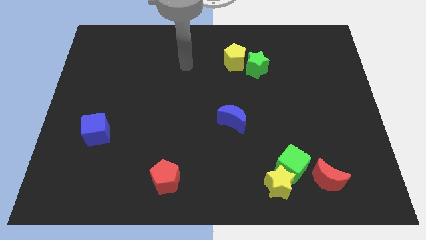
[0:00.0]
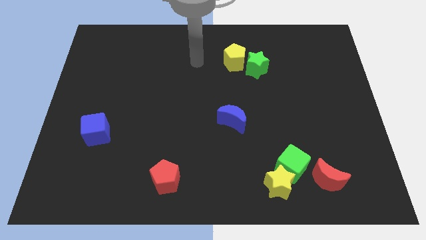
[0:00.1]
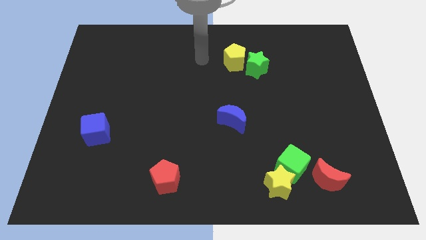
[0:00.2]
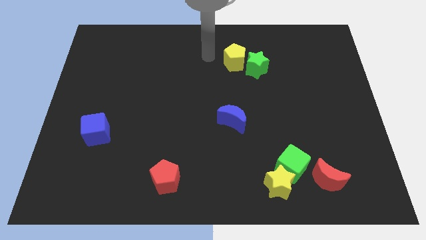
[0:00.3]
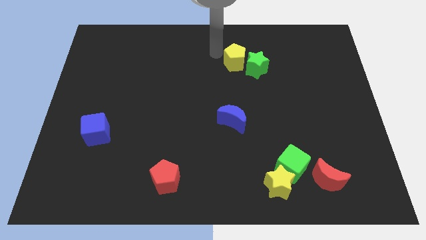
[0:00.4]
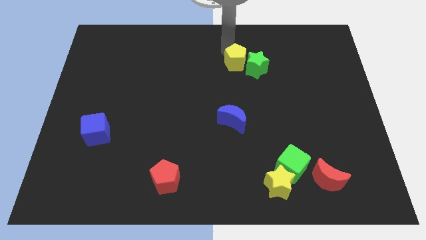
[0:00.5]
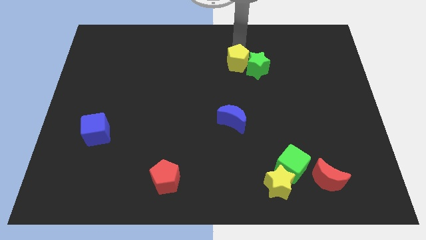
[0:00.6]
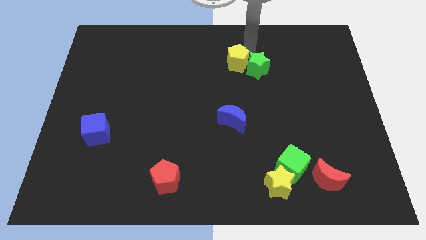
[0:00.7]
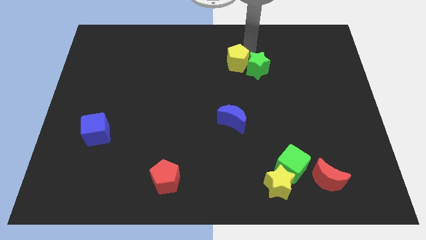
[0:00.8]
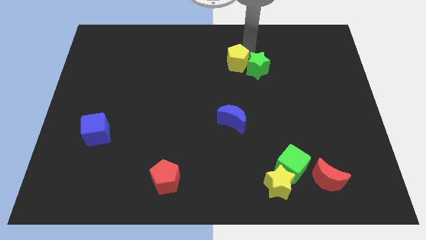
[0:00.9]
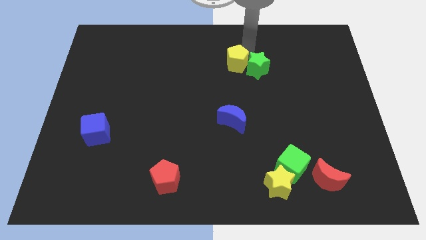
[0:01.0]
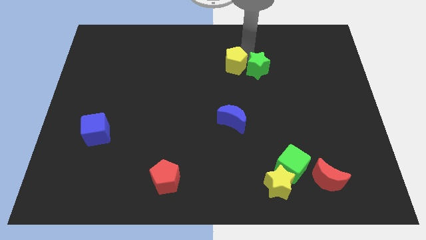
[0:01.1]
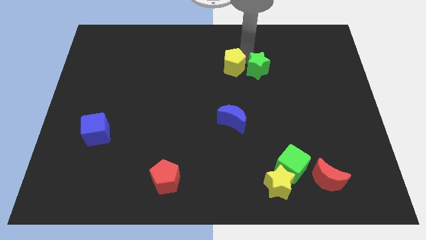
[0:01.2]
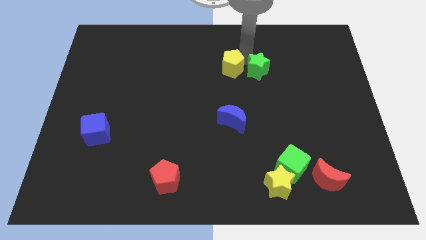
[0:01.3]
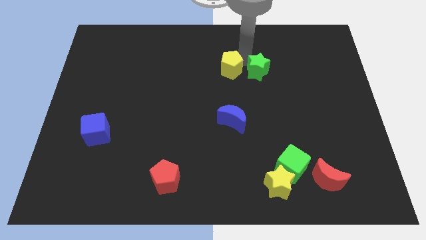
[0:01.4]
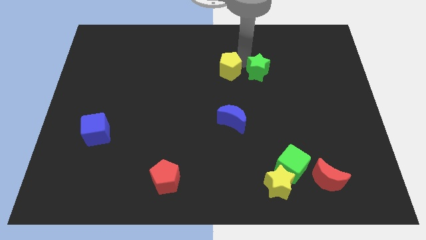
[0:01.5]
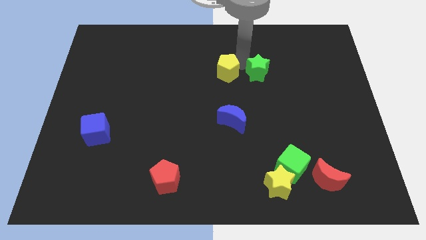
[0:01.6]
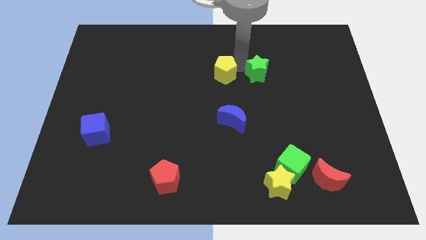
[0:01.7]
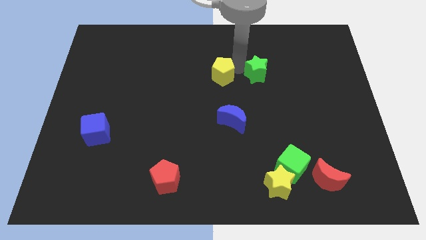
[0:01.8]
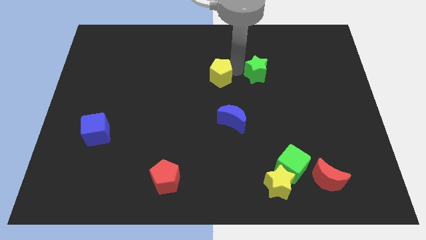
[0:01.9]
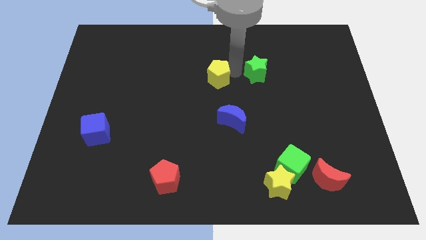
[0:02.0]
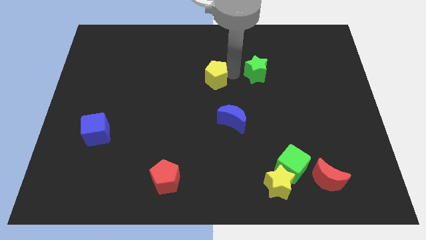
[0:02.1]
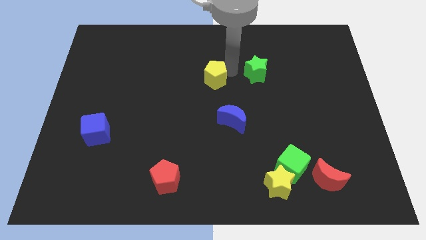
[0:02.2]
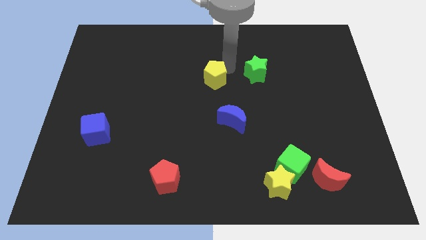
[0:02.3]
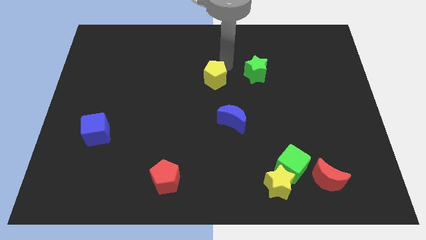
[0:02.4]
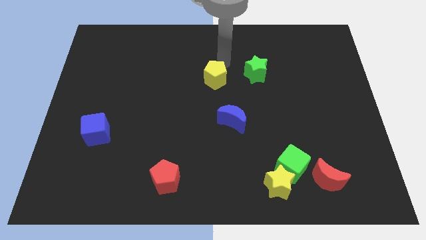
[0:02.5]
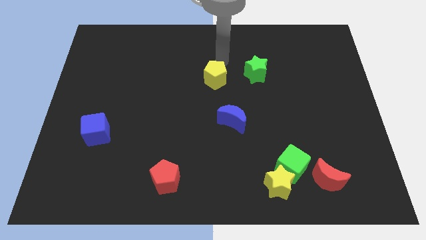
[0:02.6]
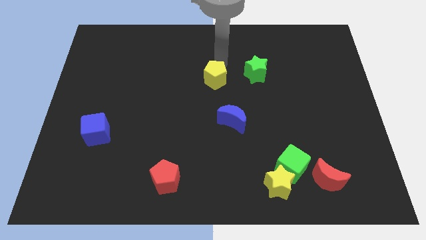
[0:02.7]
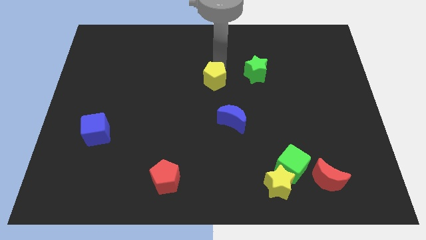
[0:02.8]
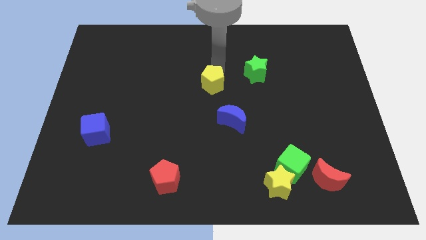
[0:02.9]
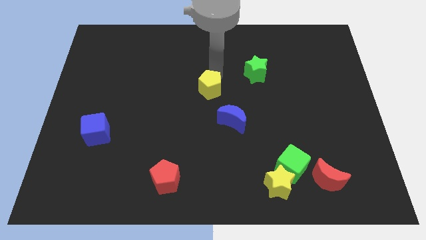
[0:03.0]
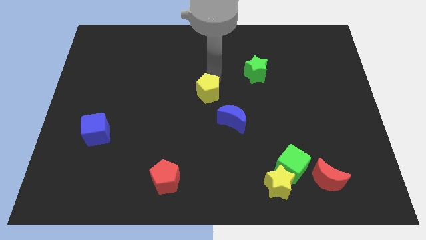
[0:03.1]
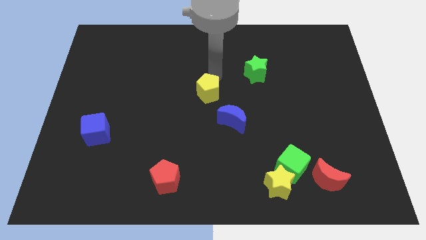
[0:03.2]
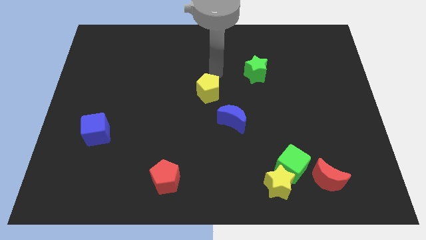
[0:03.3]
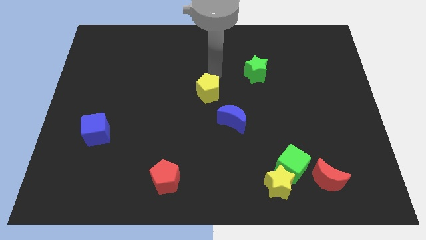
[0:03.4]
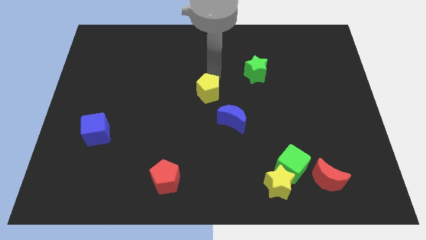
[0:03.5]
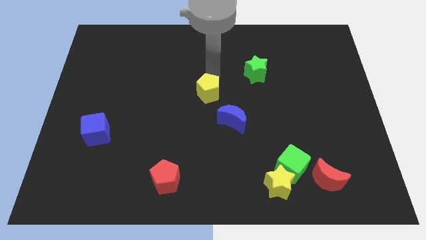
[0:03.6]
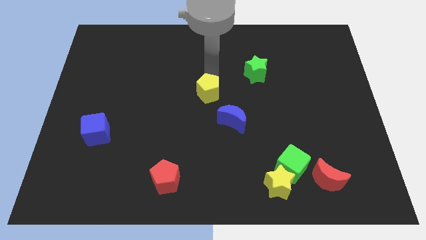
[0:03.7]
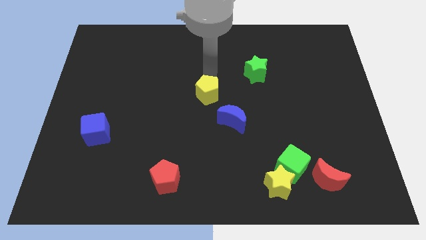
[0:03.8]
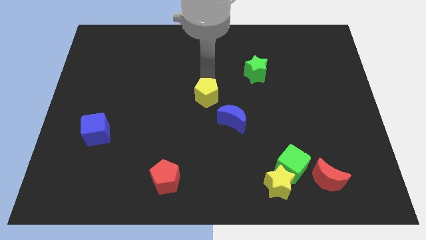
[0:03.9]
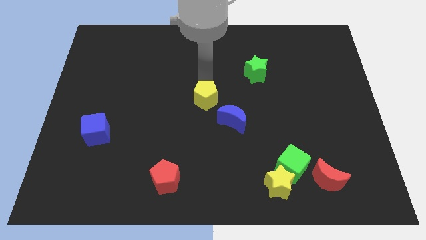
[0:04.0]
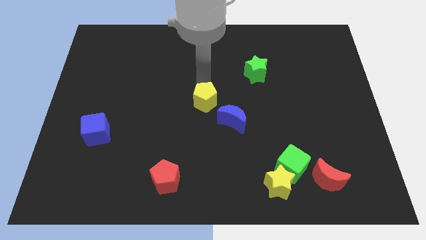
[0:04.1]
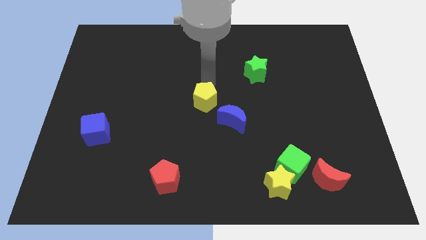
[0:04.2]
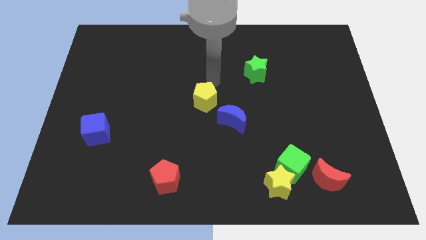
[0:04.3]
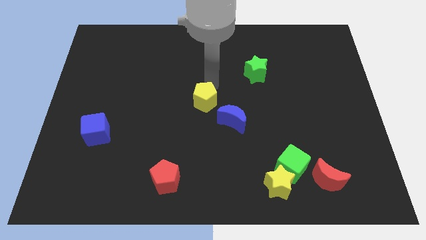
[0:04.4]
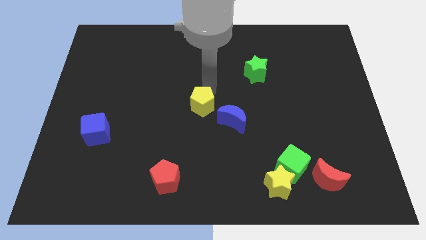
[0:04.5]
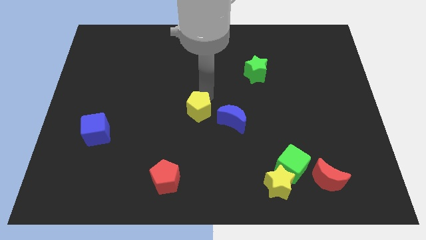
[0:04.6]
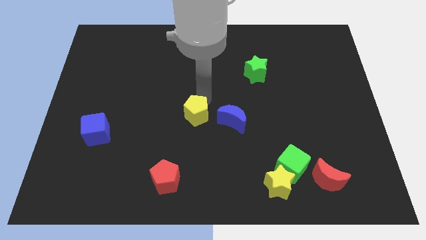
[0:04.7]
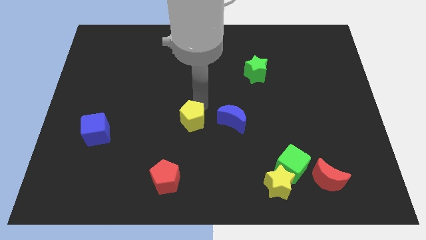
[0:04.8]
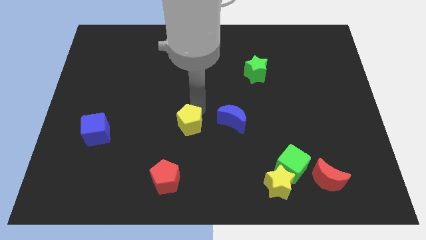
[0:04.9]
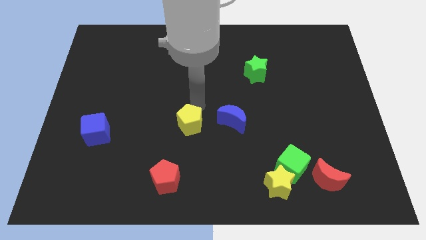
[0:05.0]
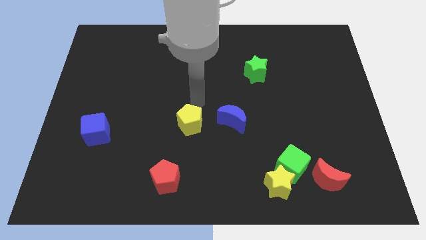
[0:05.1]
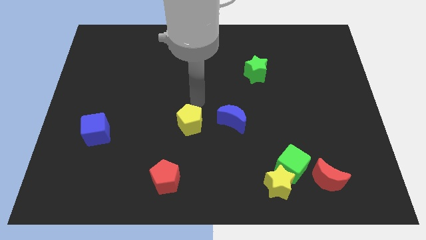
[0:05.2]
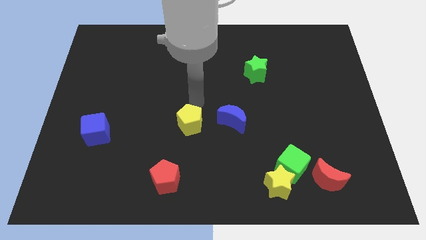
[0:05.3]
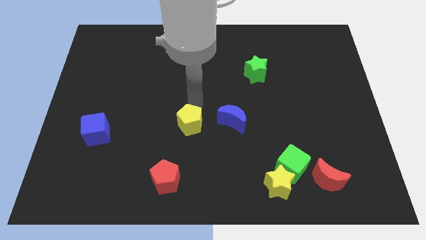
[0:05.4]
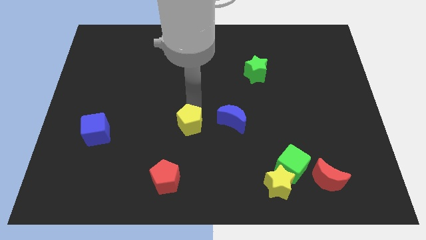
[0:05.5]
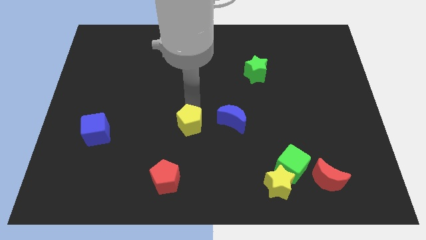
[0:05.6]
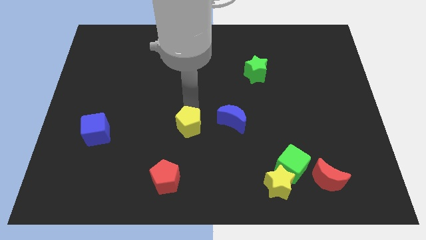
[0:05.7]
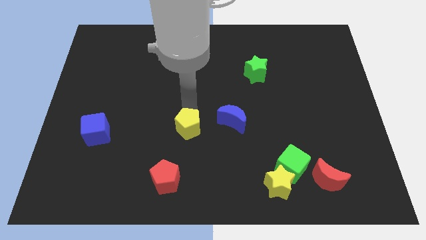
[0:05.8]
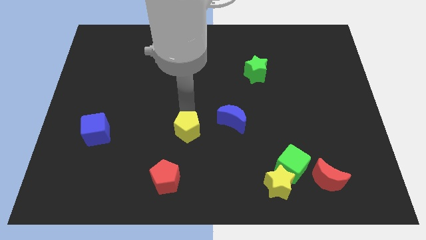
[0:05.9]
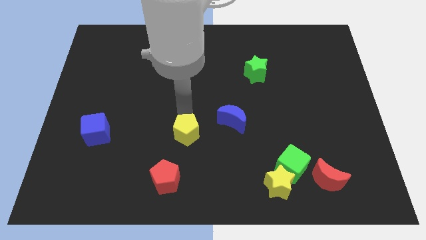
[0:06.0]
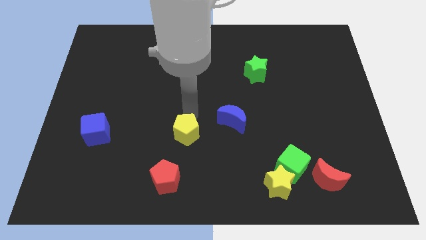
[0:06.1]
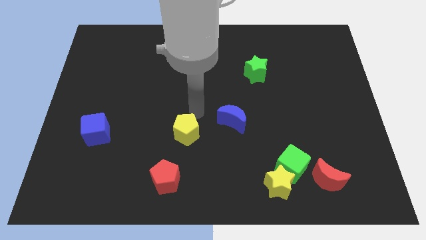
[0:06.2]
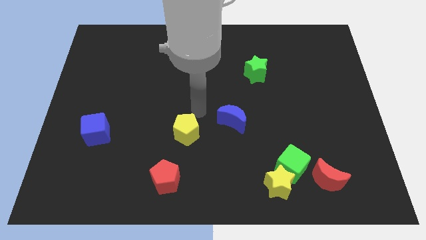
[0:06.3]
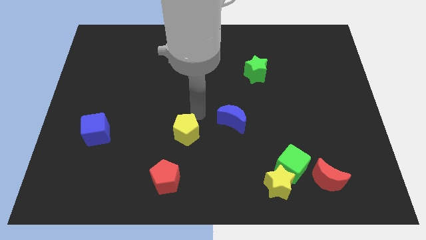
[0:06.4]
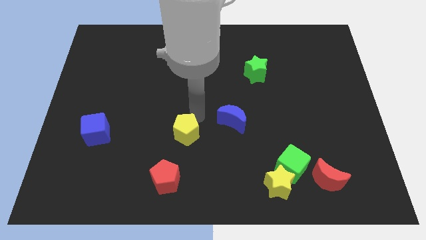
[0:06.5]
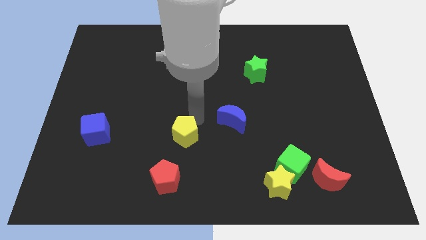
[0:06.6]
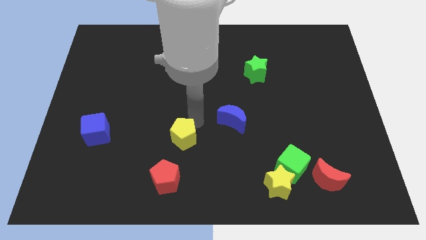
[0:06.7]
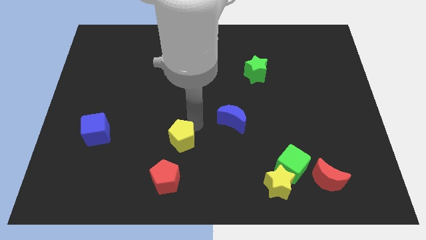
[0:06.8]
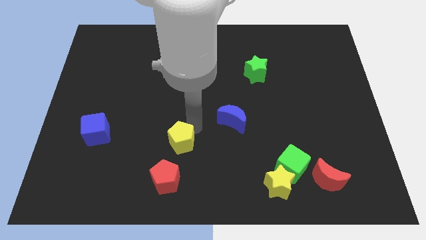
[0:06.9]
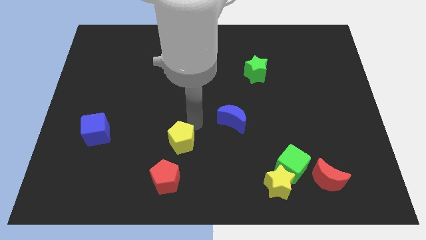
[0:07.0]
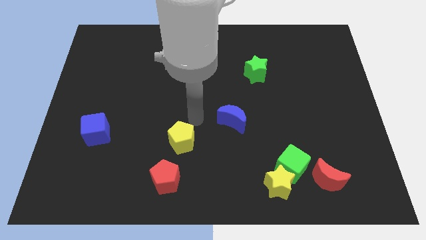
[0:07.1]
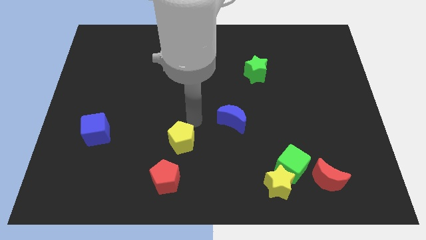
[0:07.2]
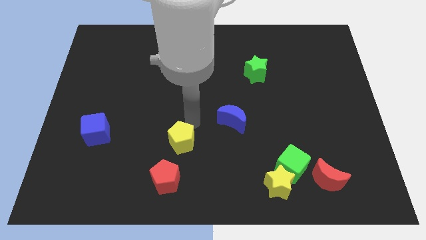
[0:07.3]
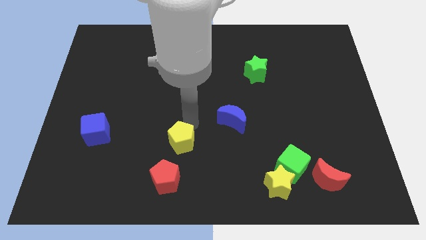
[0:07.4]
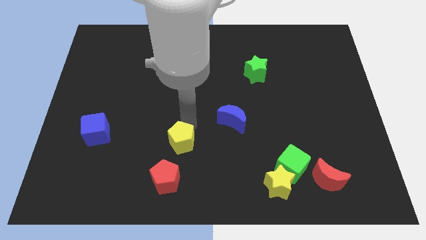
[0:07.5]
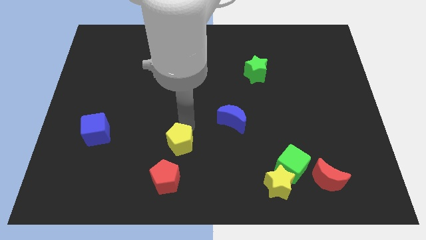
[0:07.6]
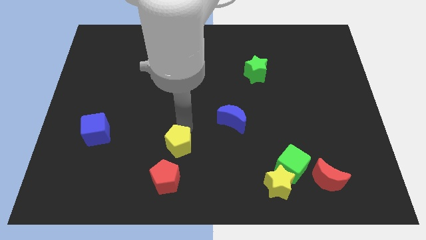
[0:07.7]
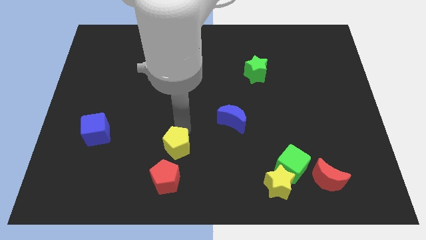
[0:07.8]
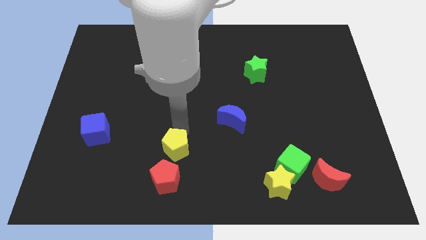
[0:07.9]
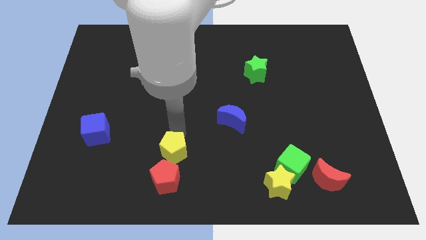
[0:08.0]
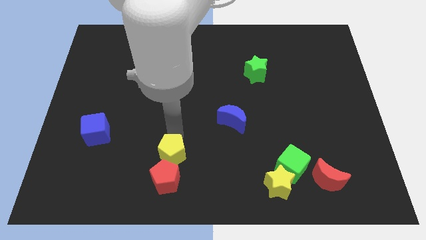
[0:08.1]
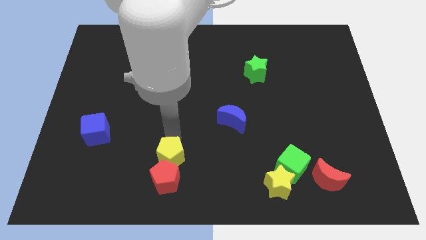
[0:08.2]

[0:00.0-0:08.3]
move the yellow pentagon close to the red pentagon
